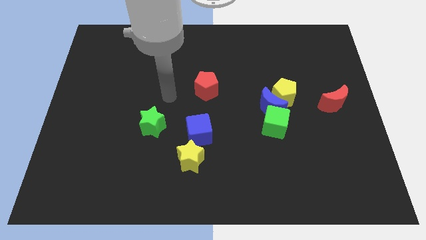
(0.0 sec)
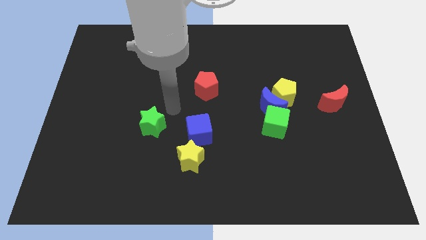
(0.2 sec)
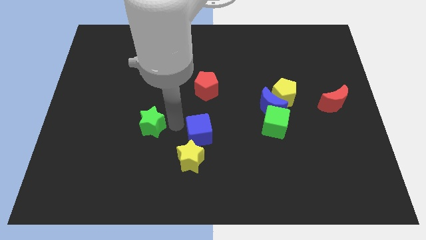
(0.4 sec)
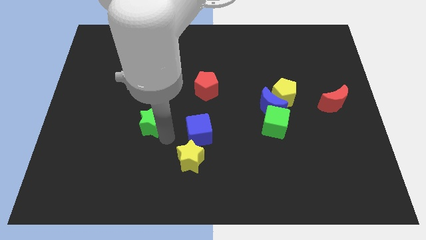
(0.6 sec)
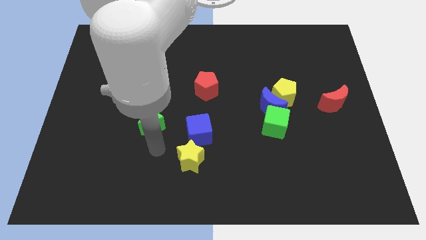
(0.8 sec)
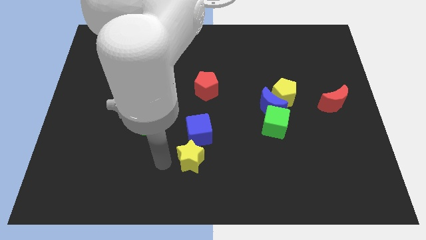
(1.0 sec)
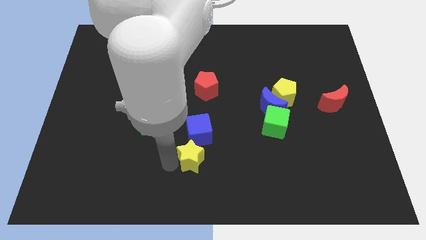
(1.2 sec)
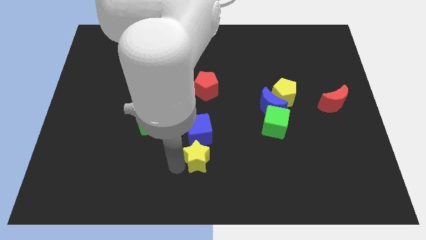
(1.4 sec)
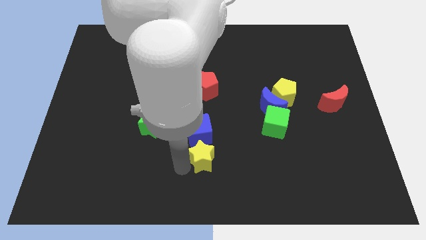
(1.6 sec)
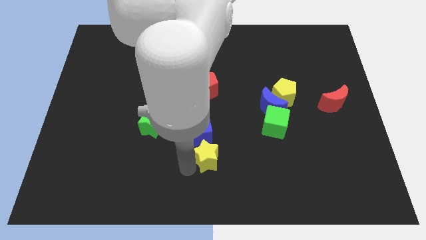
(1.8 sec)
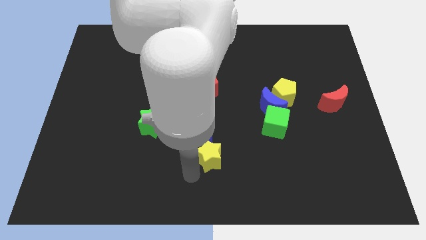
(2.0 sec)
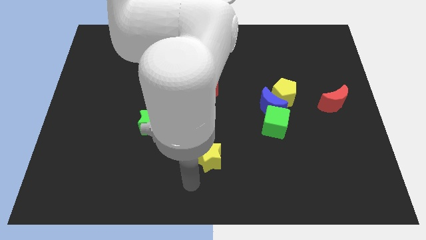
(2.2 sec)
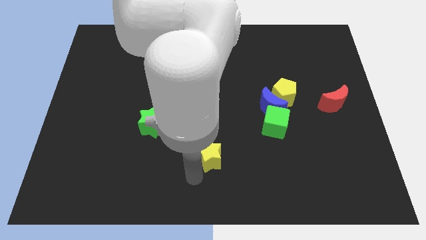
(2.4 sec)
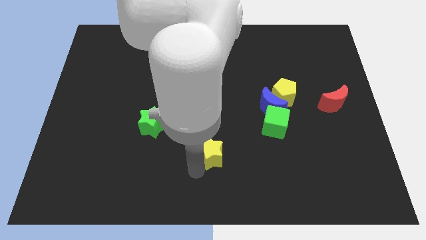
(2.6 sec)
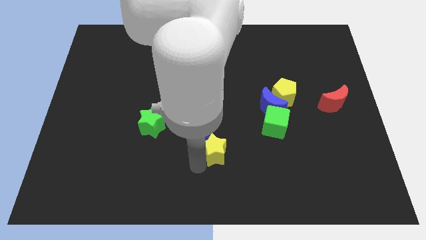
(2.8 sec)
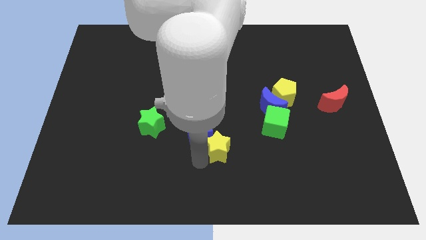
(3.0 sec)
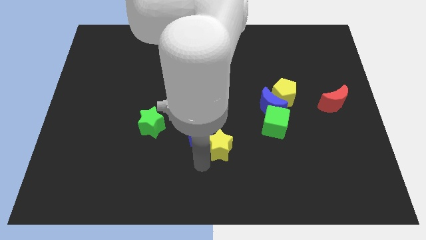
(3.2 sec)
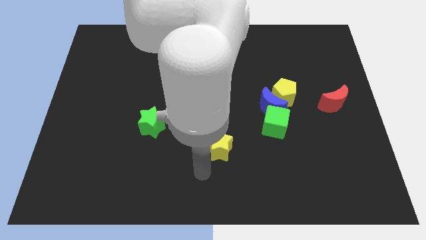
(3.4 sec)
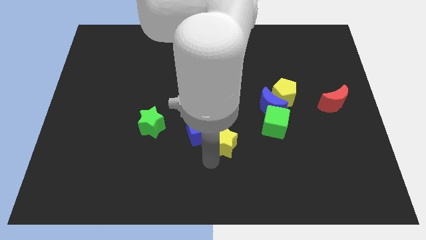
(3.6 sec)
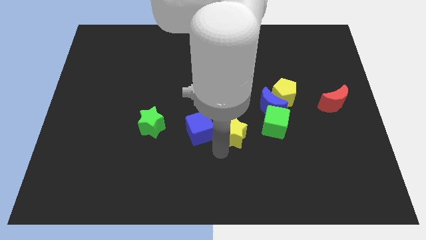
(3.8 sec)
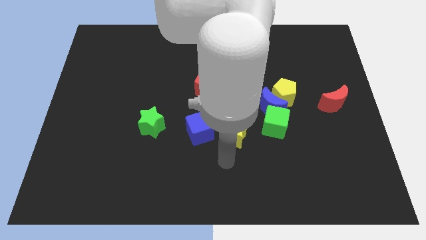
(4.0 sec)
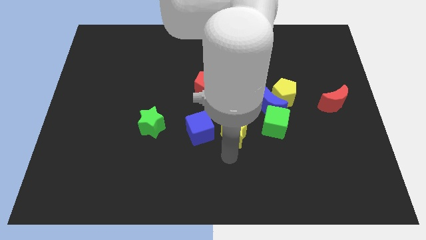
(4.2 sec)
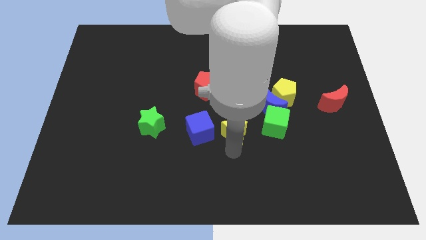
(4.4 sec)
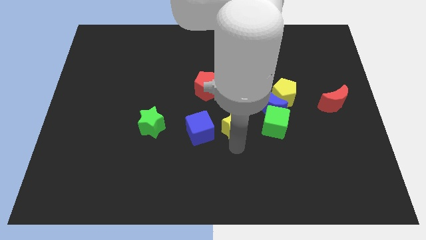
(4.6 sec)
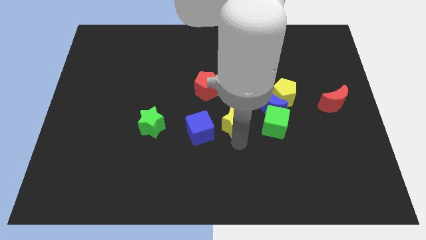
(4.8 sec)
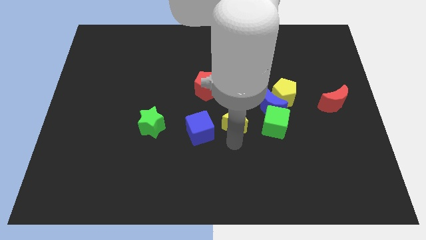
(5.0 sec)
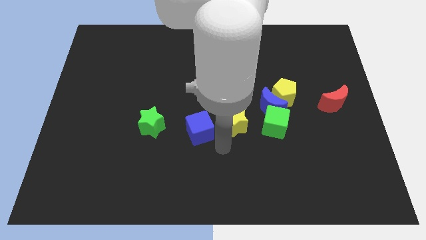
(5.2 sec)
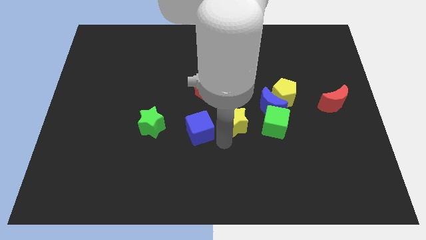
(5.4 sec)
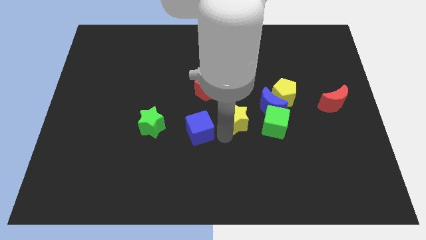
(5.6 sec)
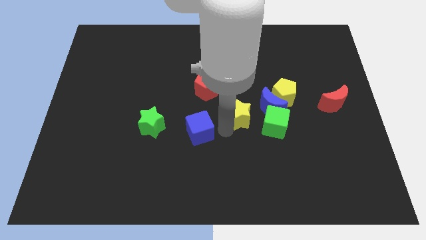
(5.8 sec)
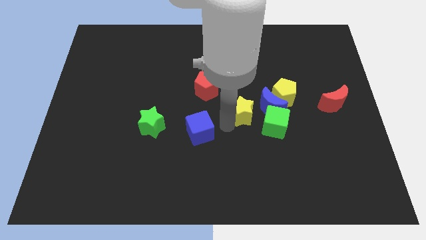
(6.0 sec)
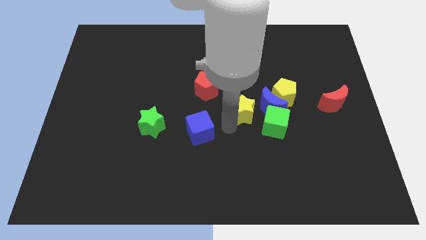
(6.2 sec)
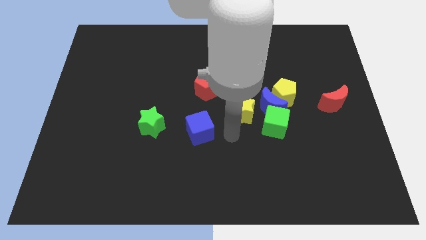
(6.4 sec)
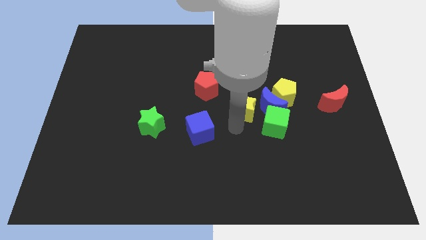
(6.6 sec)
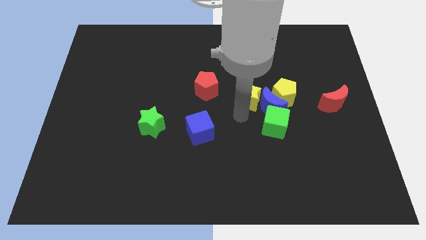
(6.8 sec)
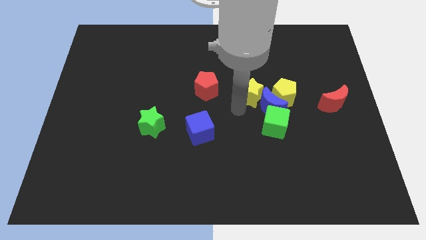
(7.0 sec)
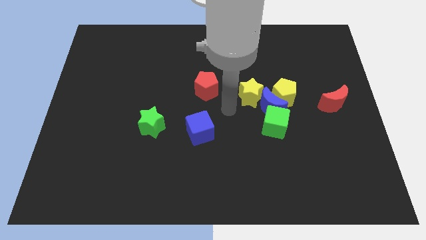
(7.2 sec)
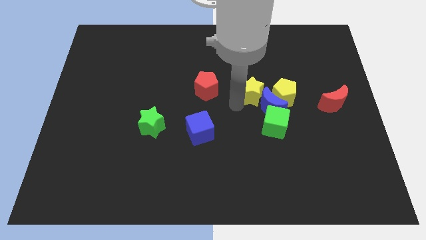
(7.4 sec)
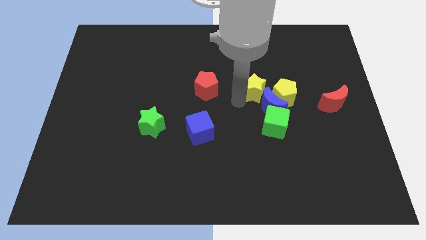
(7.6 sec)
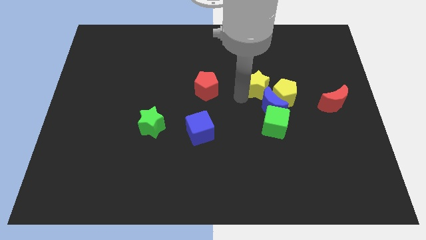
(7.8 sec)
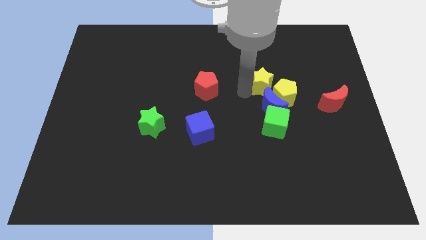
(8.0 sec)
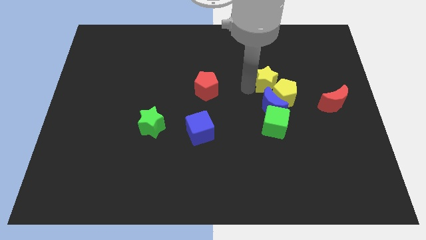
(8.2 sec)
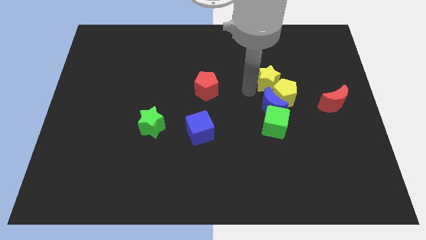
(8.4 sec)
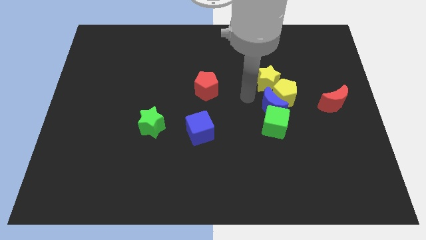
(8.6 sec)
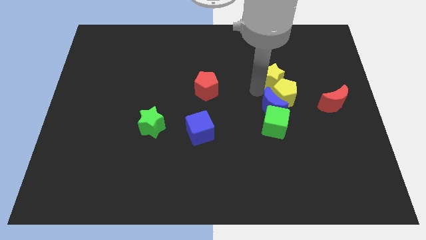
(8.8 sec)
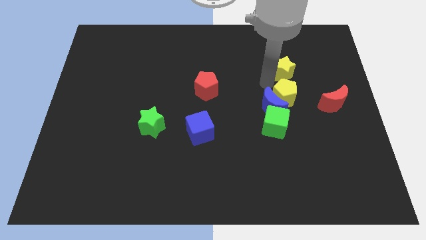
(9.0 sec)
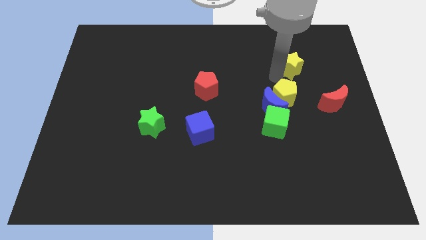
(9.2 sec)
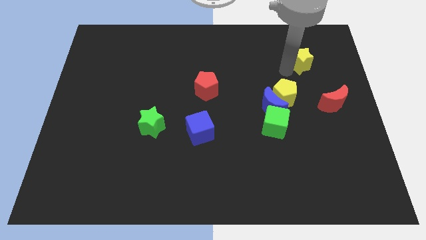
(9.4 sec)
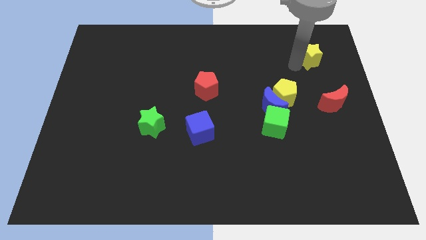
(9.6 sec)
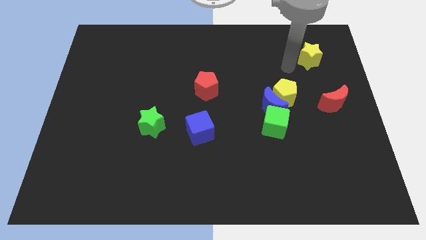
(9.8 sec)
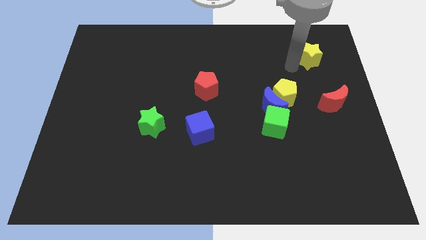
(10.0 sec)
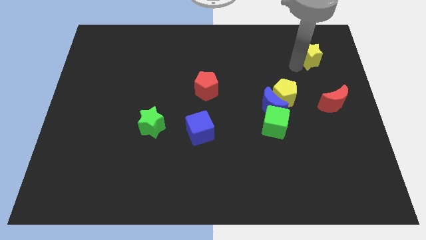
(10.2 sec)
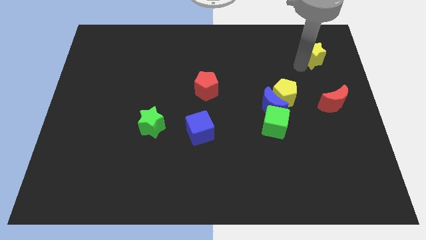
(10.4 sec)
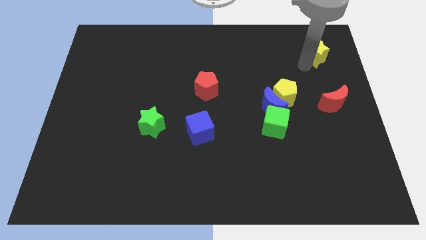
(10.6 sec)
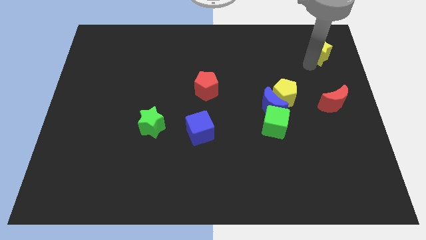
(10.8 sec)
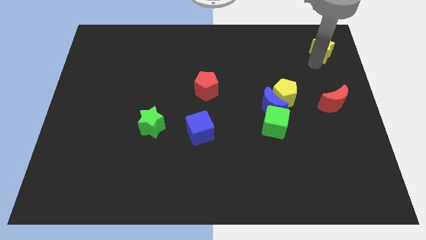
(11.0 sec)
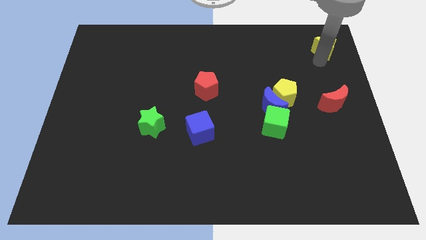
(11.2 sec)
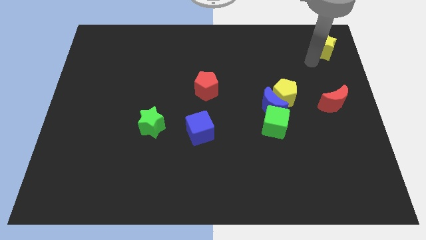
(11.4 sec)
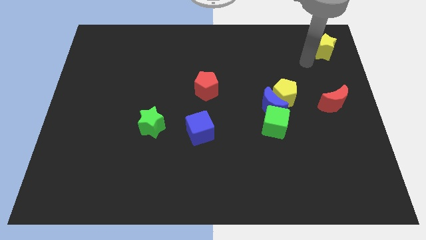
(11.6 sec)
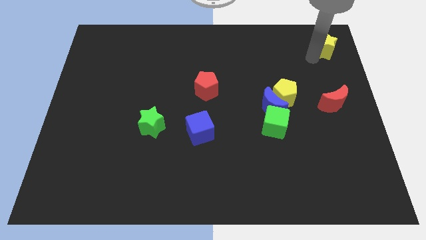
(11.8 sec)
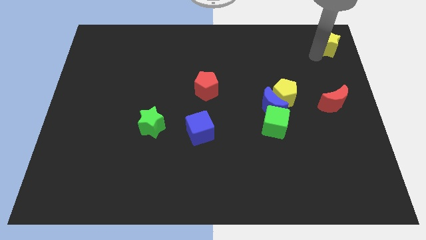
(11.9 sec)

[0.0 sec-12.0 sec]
put the yellow star to the top right

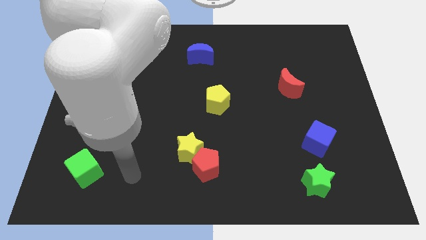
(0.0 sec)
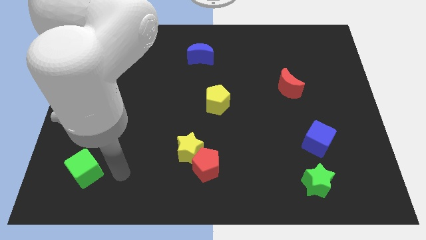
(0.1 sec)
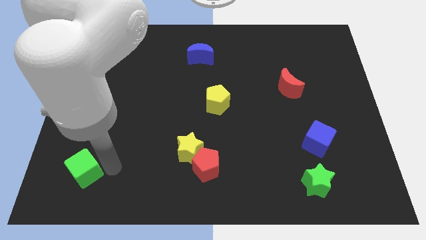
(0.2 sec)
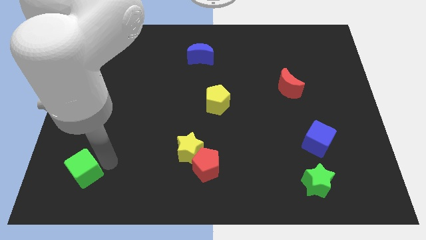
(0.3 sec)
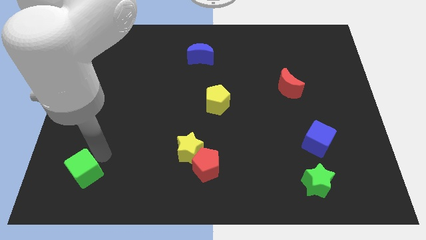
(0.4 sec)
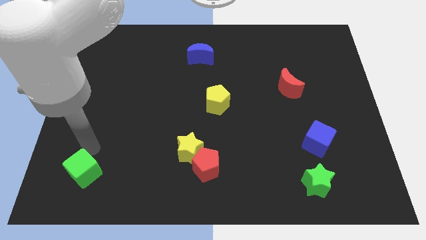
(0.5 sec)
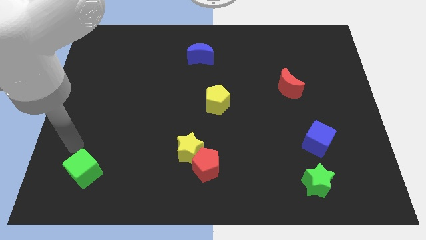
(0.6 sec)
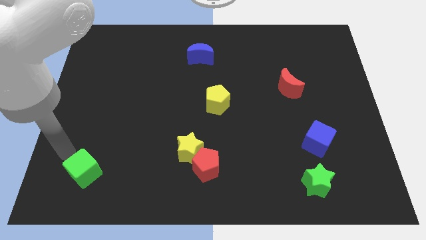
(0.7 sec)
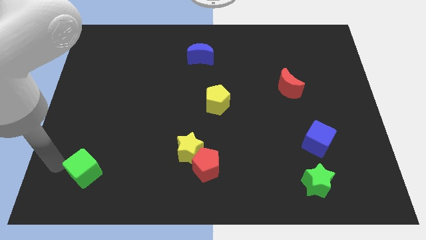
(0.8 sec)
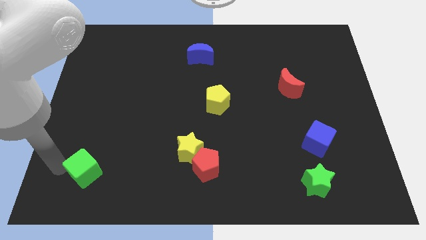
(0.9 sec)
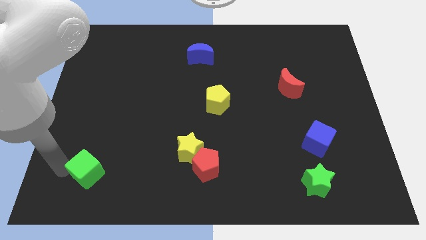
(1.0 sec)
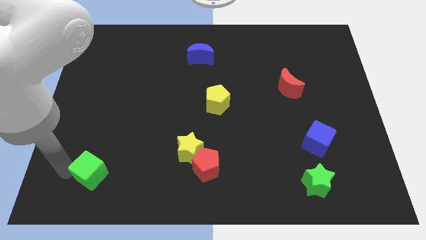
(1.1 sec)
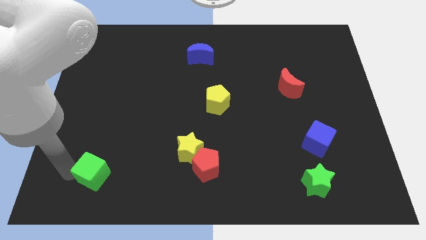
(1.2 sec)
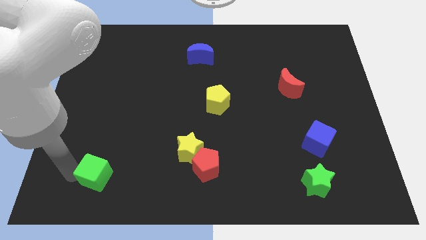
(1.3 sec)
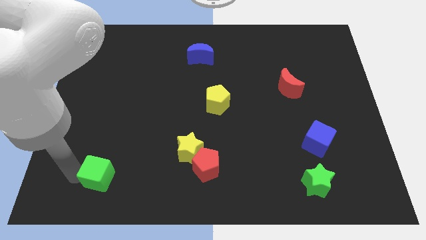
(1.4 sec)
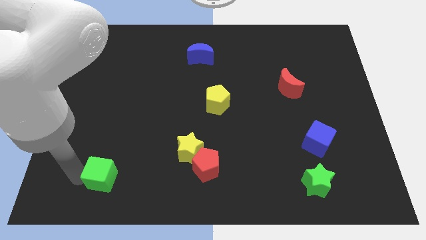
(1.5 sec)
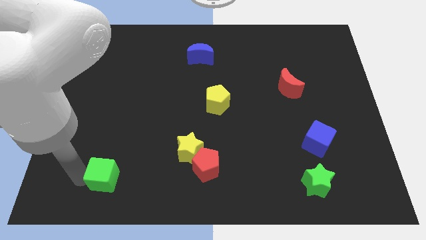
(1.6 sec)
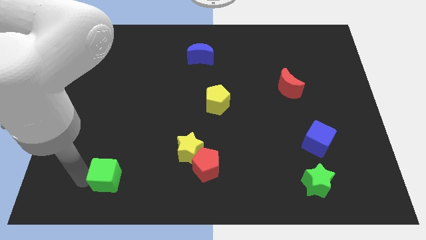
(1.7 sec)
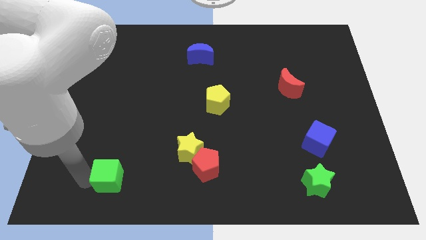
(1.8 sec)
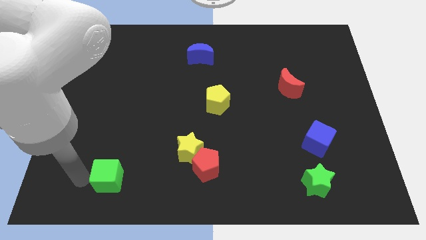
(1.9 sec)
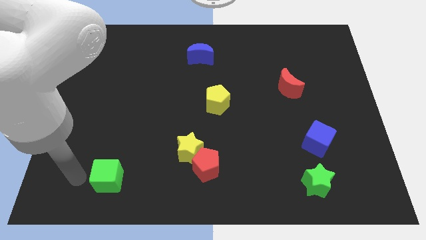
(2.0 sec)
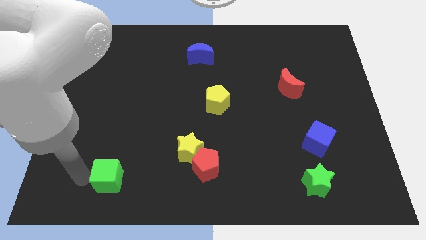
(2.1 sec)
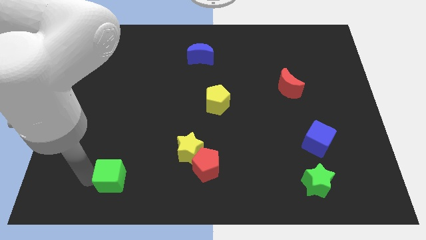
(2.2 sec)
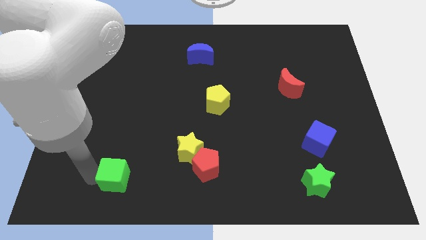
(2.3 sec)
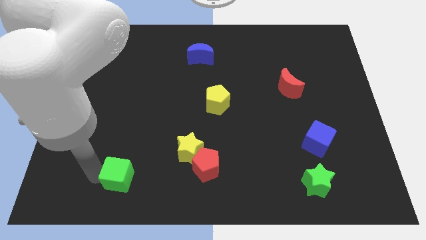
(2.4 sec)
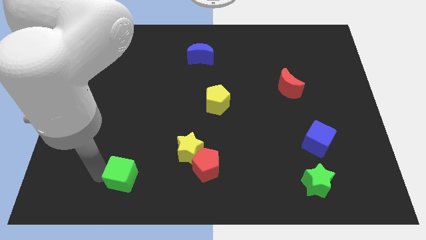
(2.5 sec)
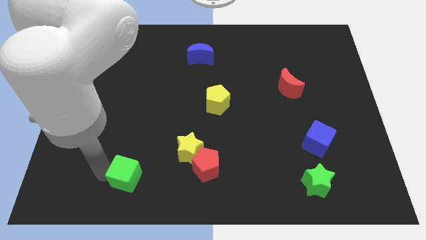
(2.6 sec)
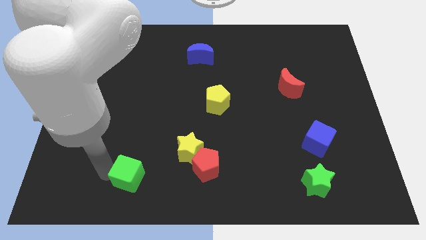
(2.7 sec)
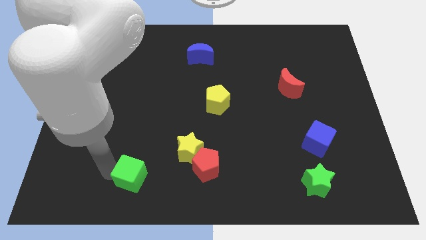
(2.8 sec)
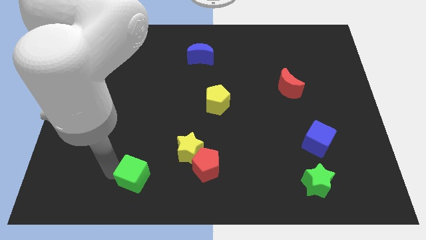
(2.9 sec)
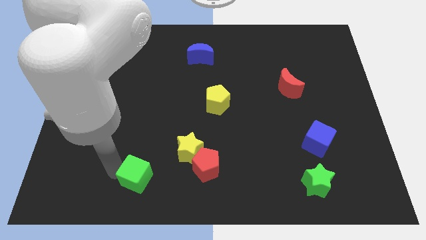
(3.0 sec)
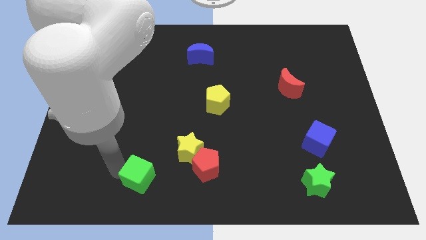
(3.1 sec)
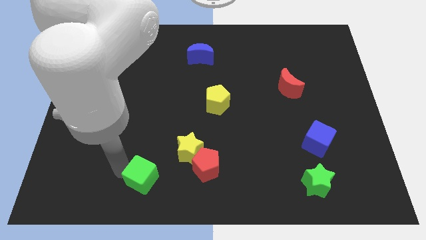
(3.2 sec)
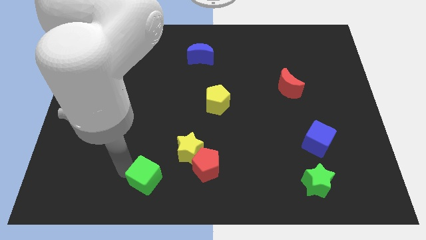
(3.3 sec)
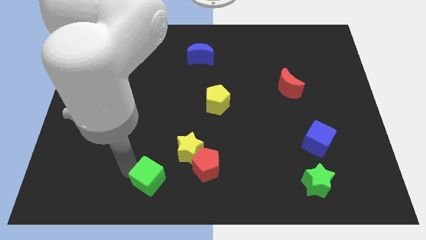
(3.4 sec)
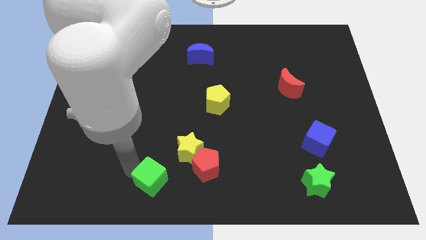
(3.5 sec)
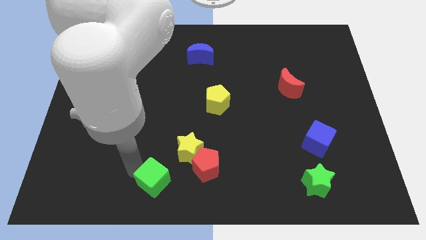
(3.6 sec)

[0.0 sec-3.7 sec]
push the green cube to the bottom
